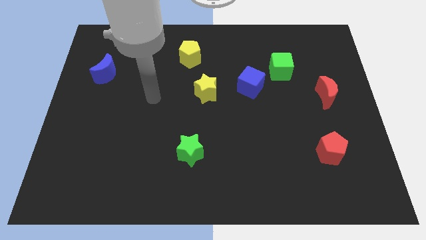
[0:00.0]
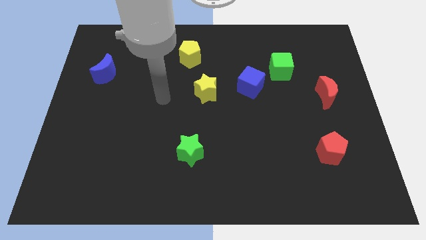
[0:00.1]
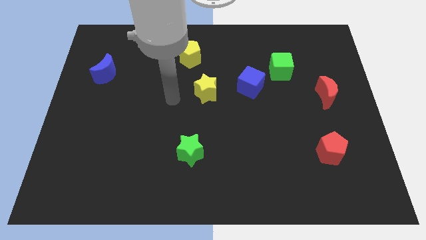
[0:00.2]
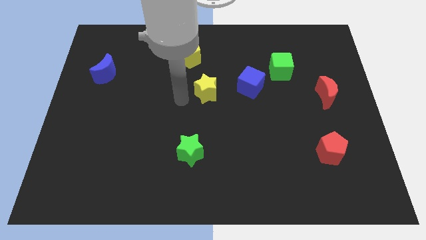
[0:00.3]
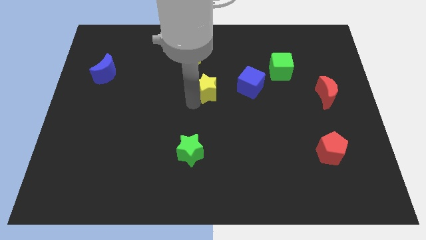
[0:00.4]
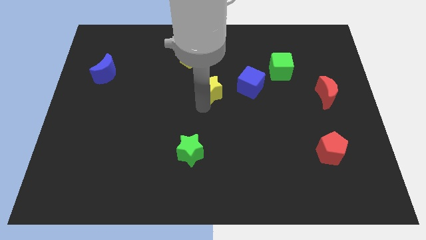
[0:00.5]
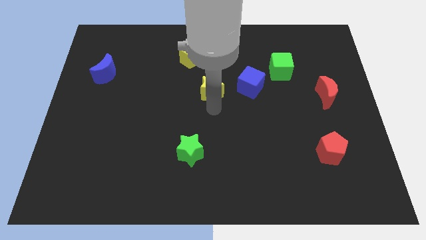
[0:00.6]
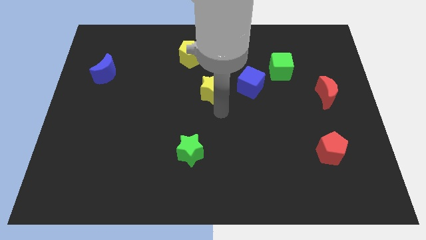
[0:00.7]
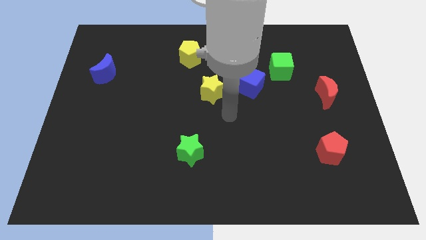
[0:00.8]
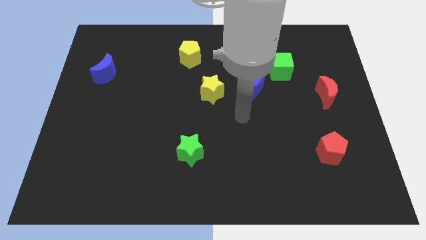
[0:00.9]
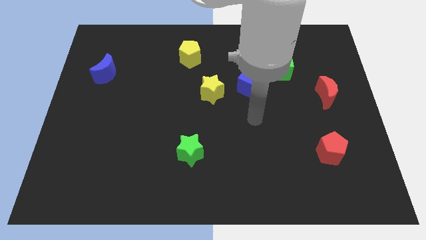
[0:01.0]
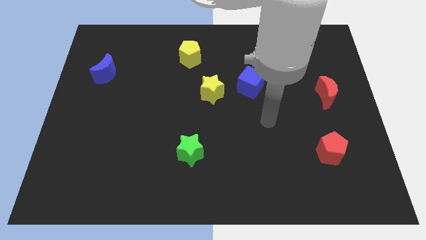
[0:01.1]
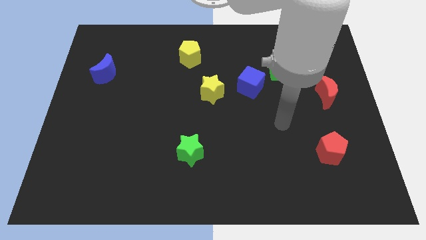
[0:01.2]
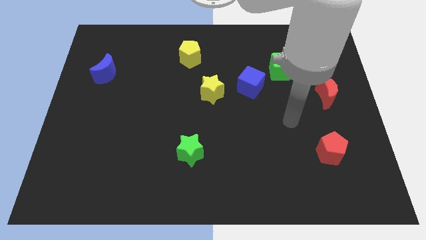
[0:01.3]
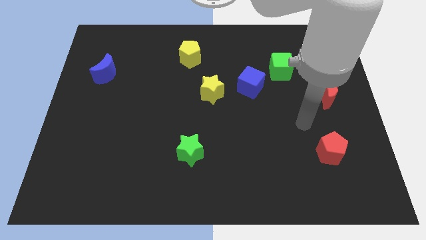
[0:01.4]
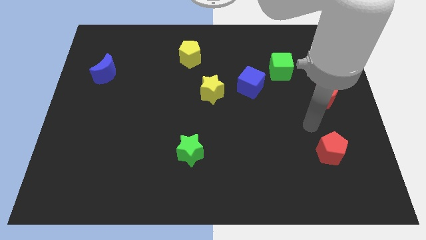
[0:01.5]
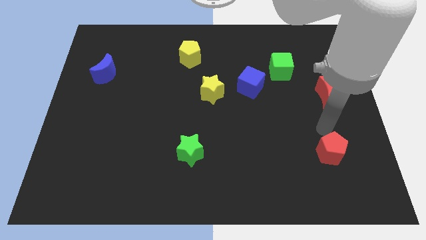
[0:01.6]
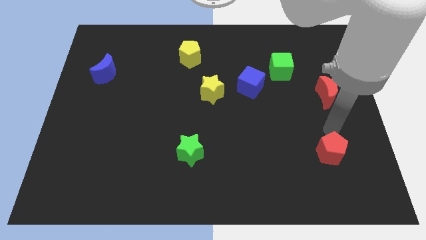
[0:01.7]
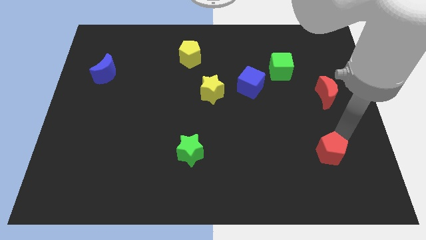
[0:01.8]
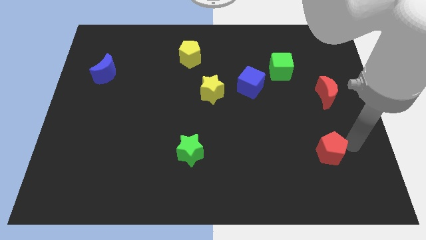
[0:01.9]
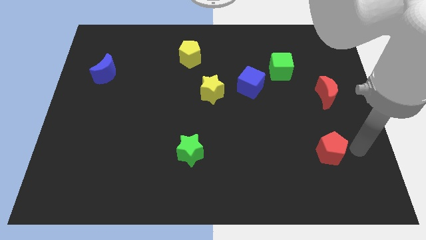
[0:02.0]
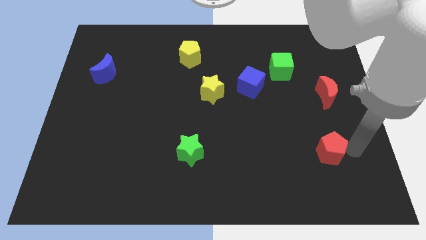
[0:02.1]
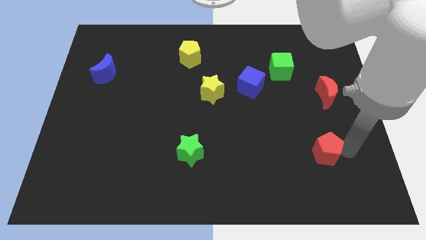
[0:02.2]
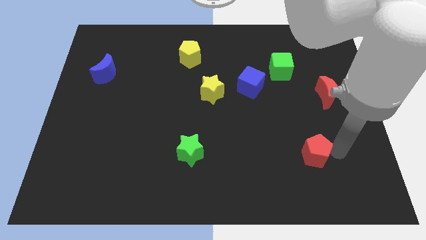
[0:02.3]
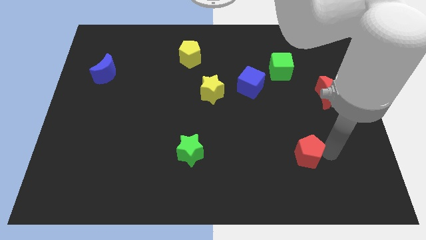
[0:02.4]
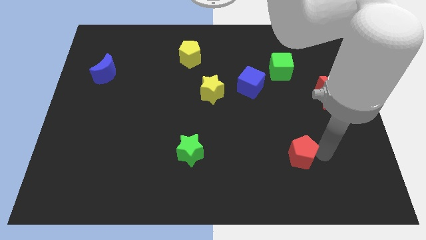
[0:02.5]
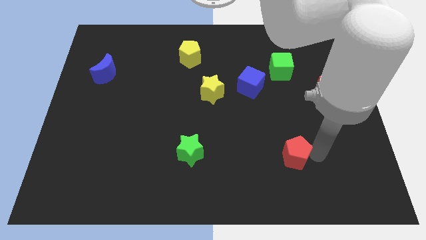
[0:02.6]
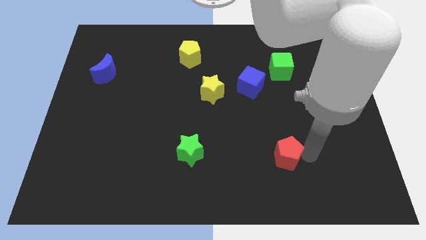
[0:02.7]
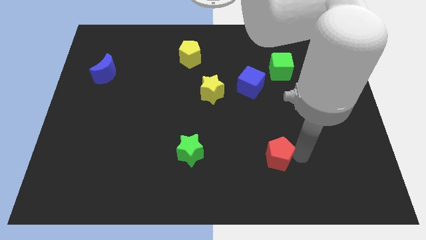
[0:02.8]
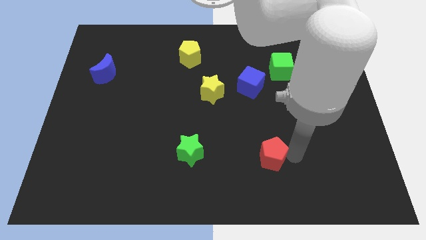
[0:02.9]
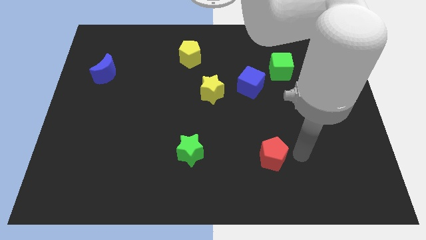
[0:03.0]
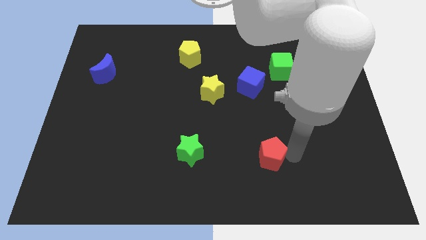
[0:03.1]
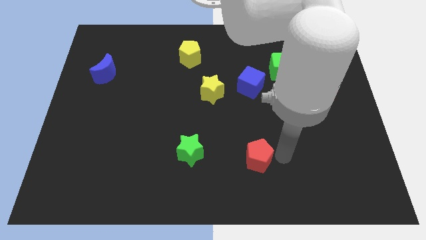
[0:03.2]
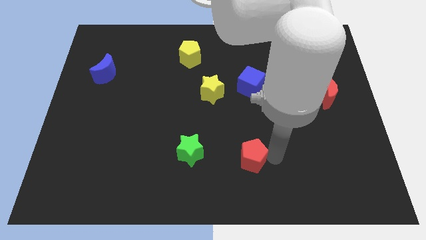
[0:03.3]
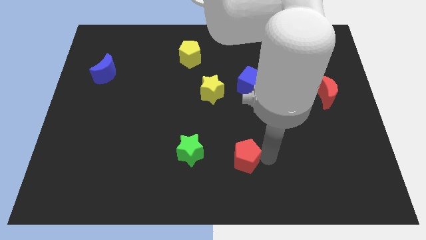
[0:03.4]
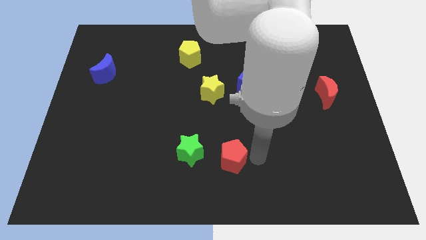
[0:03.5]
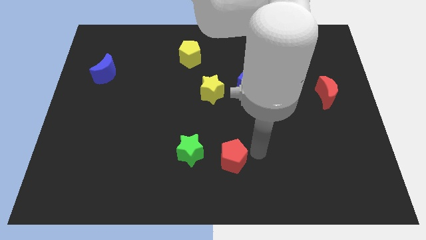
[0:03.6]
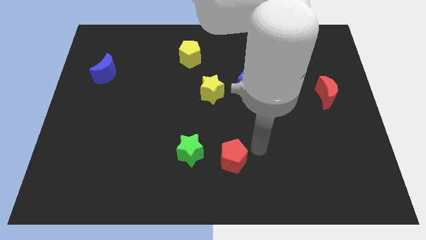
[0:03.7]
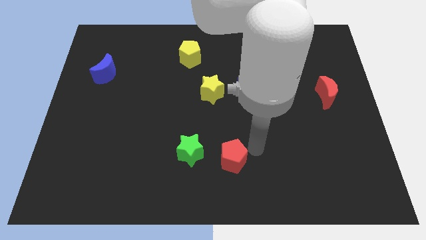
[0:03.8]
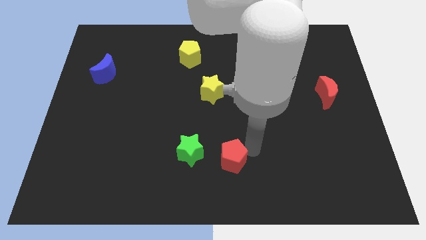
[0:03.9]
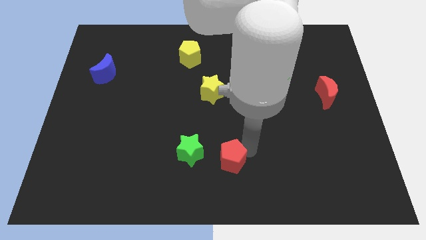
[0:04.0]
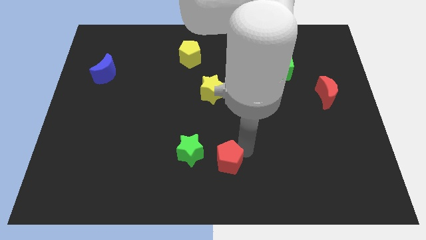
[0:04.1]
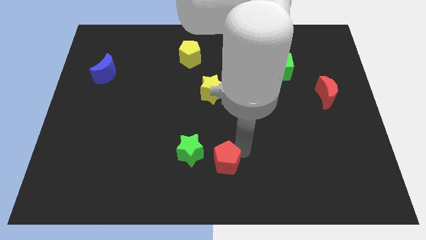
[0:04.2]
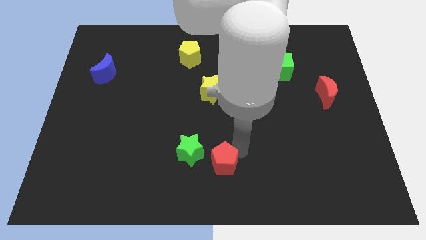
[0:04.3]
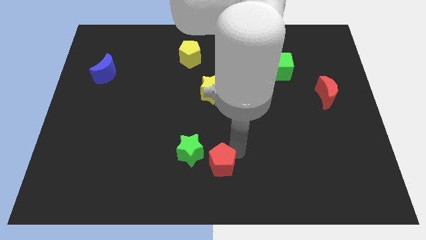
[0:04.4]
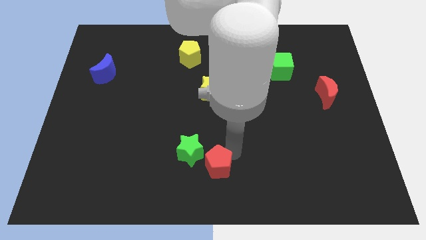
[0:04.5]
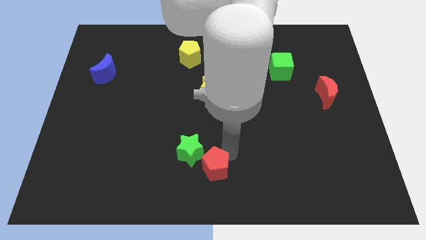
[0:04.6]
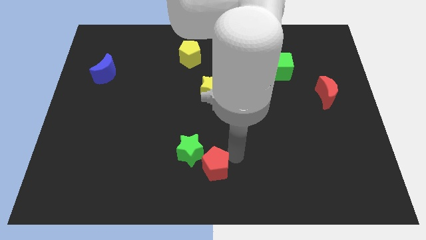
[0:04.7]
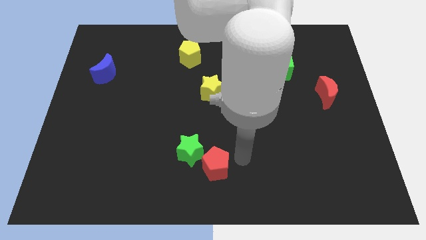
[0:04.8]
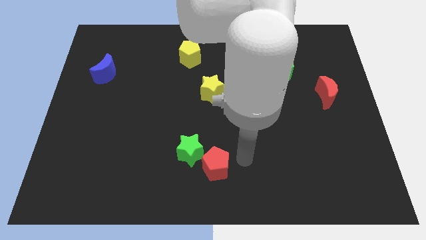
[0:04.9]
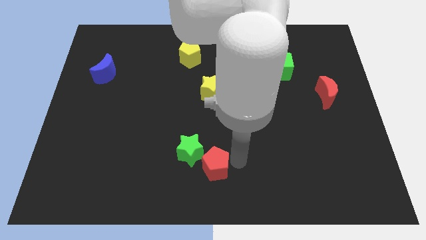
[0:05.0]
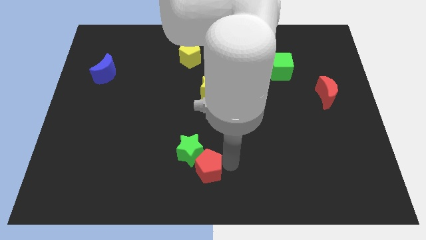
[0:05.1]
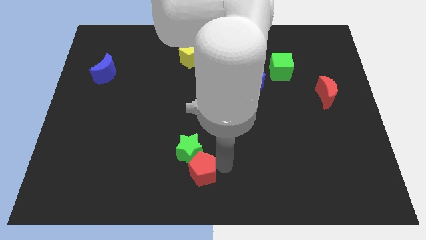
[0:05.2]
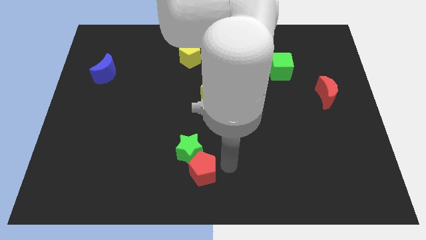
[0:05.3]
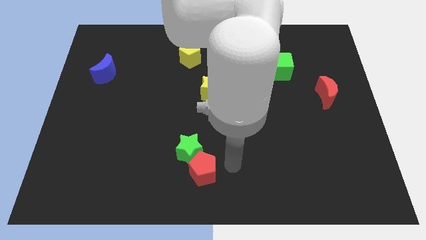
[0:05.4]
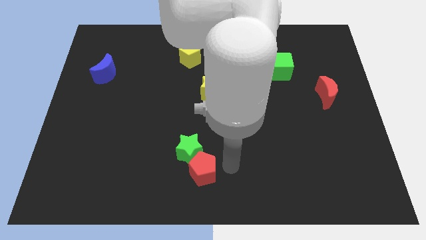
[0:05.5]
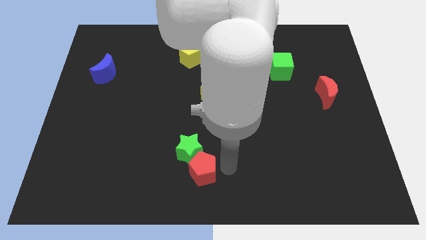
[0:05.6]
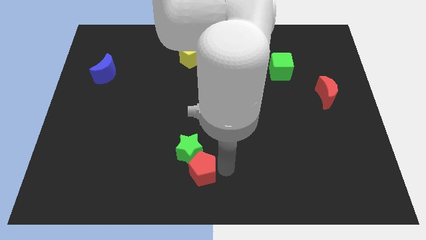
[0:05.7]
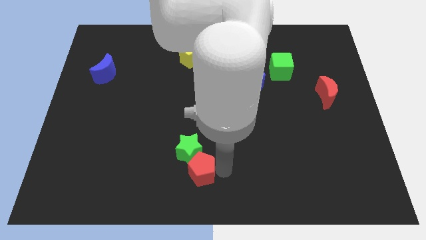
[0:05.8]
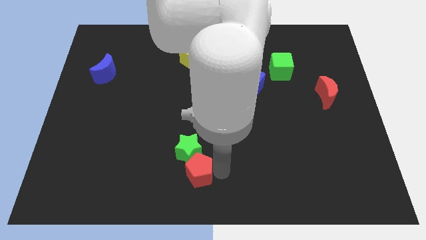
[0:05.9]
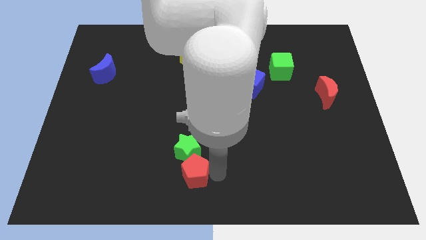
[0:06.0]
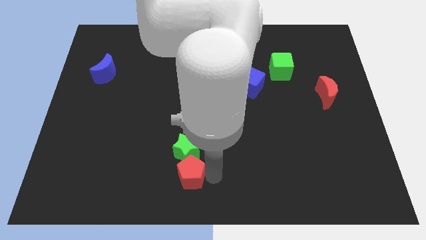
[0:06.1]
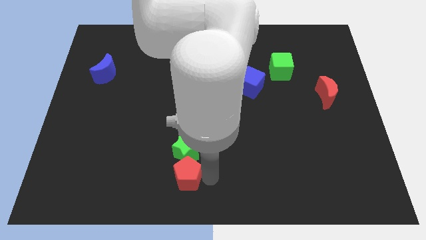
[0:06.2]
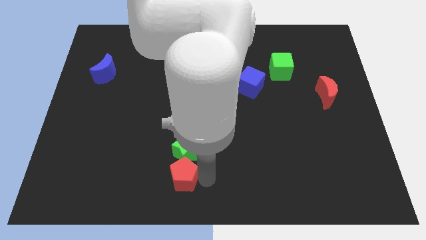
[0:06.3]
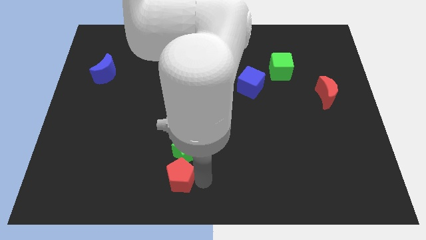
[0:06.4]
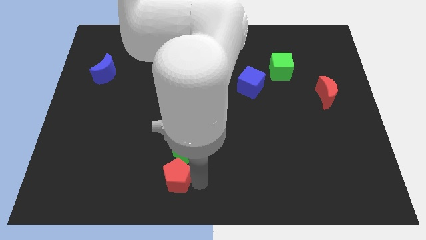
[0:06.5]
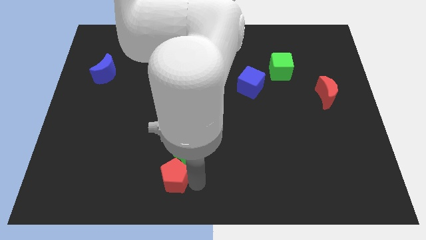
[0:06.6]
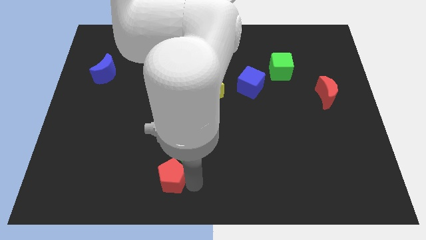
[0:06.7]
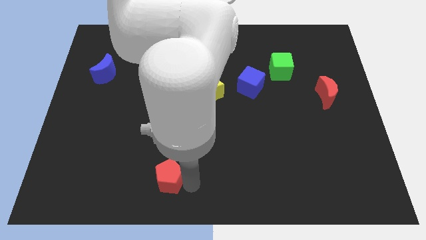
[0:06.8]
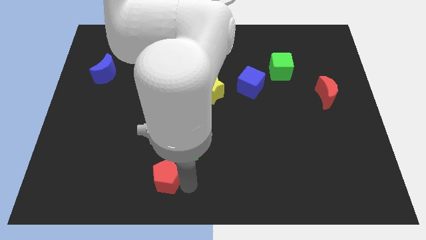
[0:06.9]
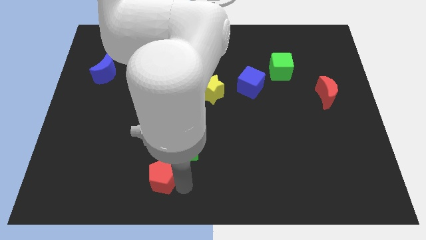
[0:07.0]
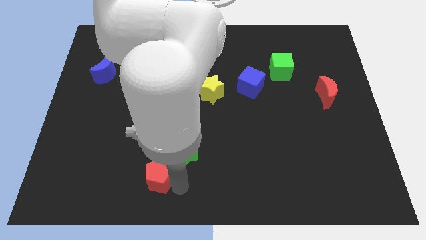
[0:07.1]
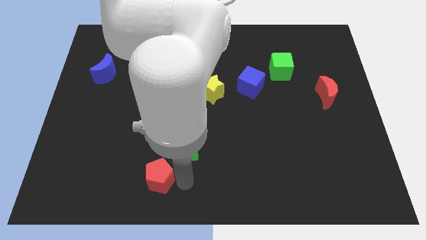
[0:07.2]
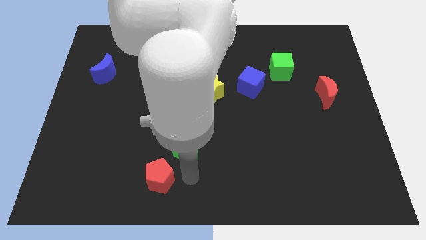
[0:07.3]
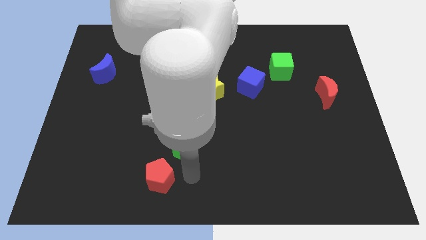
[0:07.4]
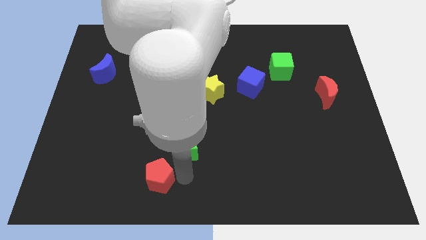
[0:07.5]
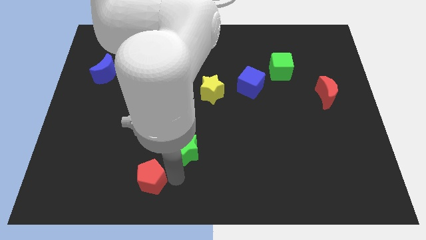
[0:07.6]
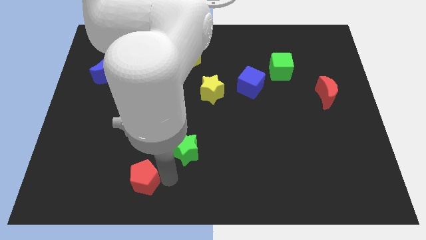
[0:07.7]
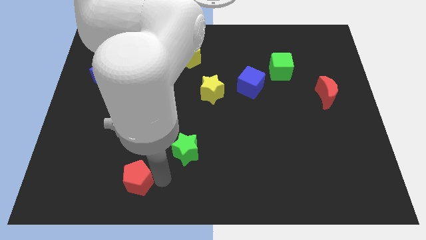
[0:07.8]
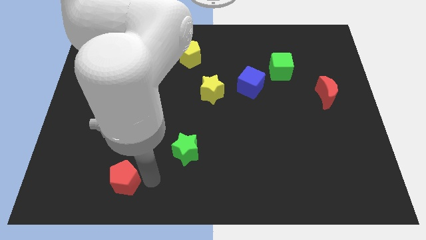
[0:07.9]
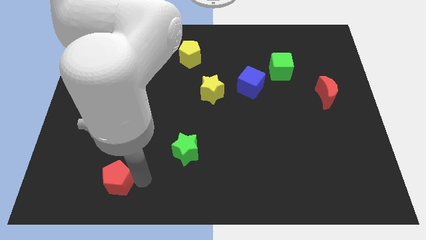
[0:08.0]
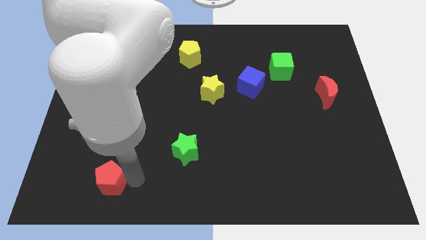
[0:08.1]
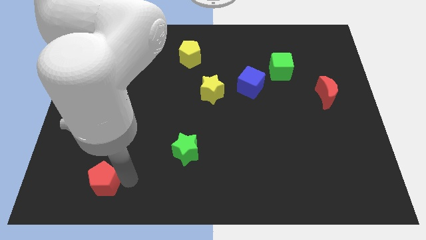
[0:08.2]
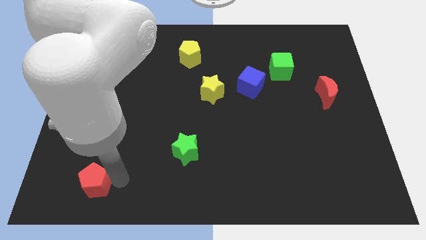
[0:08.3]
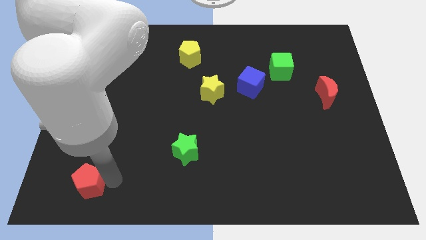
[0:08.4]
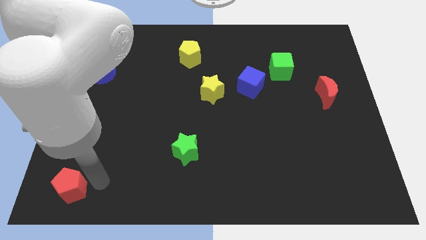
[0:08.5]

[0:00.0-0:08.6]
push the red pentagon to the bottom left corner
